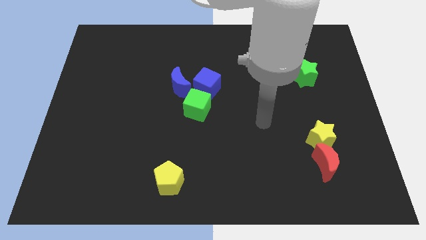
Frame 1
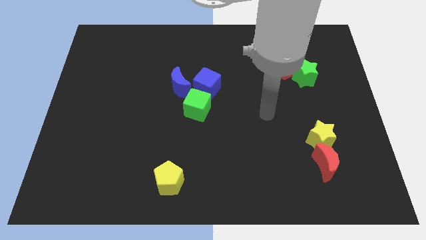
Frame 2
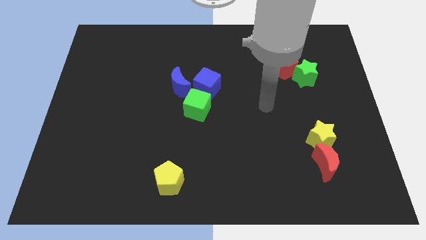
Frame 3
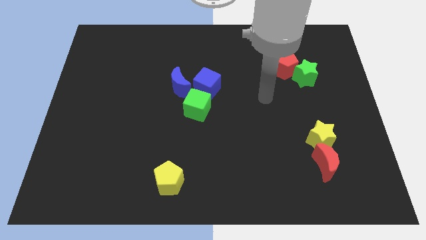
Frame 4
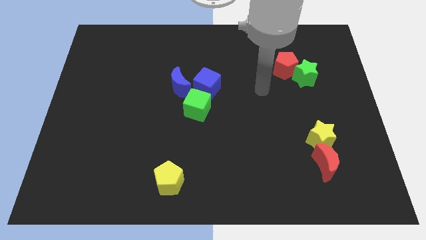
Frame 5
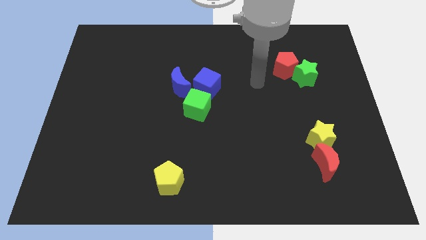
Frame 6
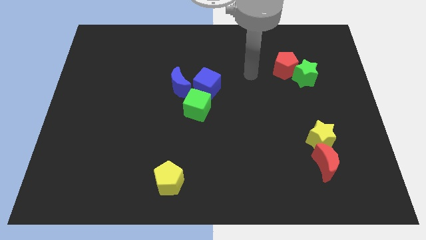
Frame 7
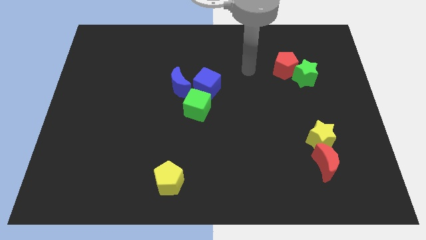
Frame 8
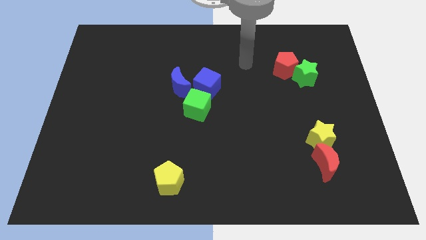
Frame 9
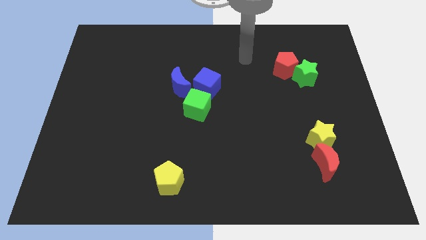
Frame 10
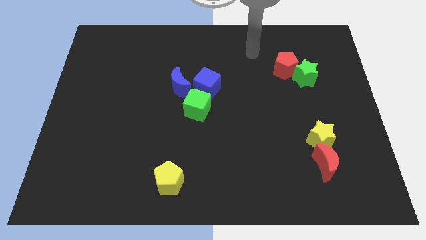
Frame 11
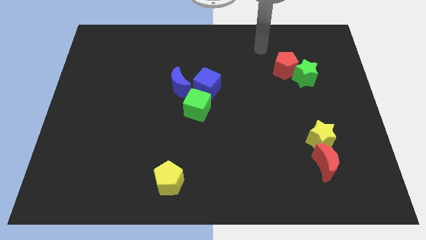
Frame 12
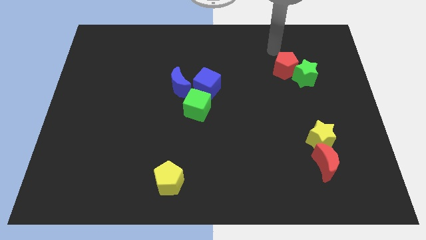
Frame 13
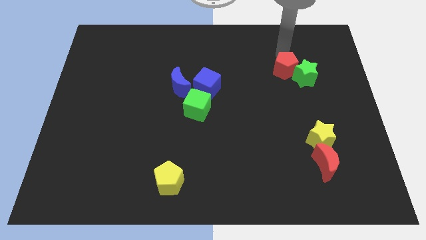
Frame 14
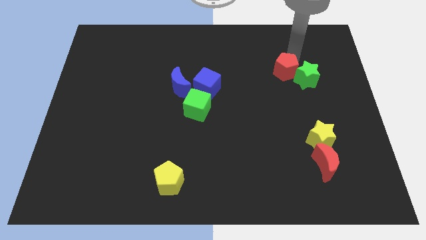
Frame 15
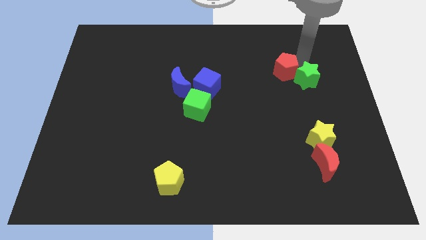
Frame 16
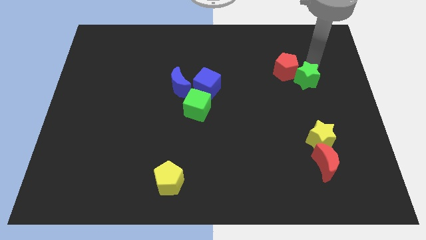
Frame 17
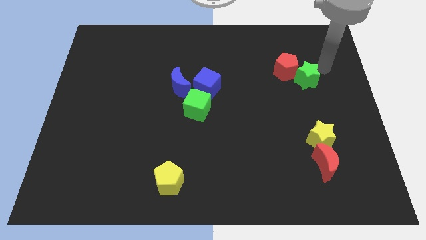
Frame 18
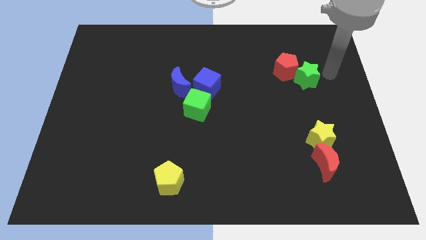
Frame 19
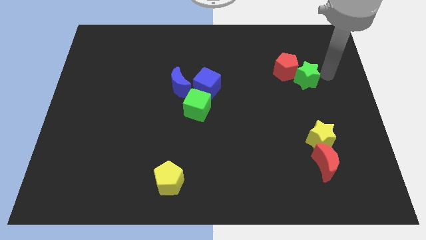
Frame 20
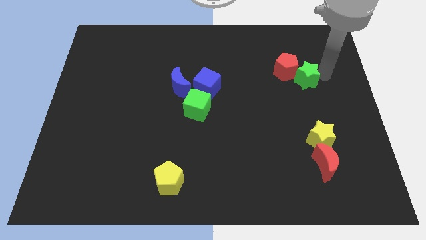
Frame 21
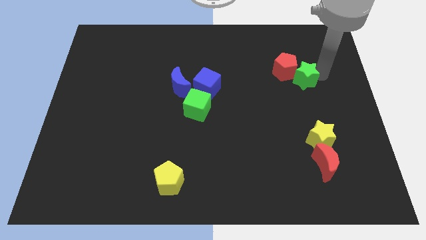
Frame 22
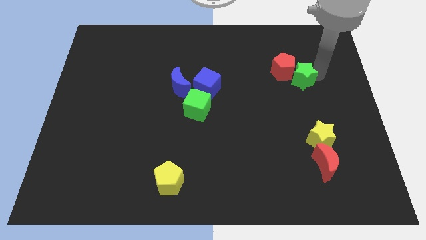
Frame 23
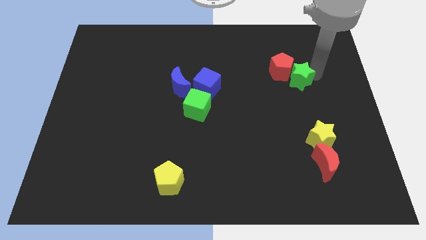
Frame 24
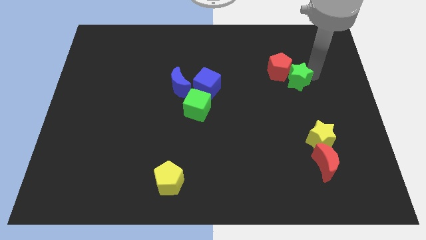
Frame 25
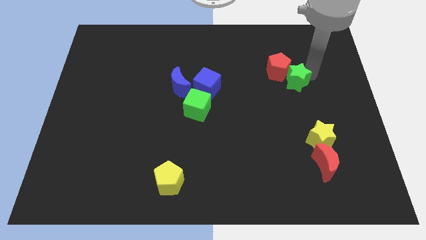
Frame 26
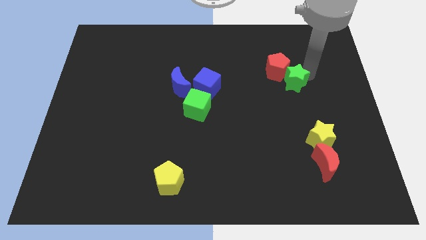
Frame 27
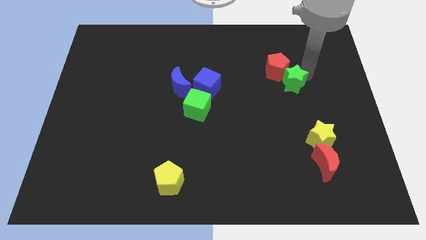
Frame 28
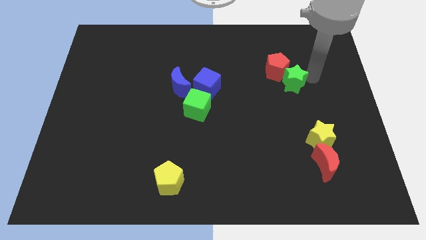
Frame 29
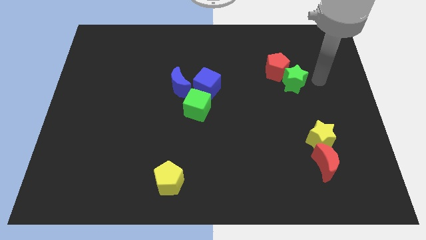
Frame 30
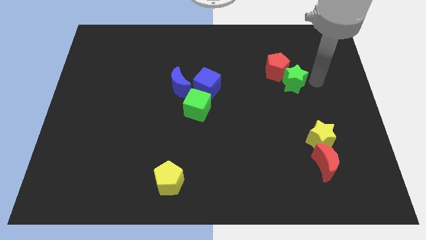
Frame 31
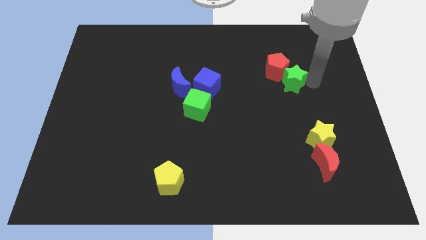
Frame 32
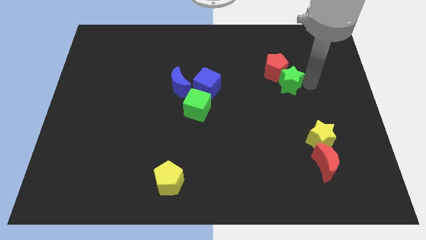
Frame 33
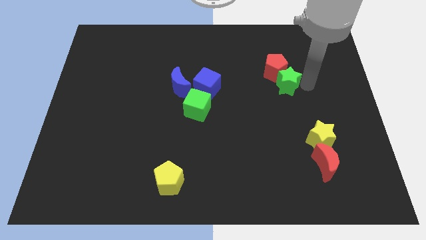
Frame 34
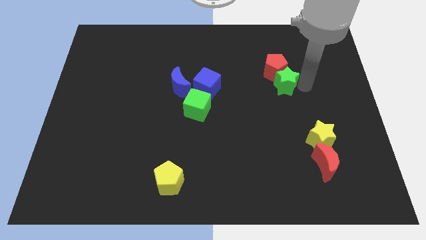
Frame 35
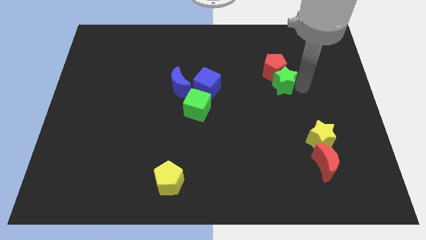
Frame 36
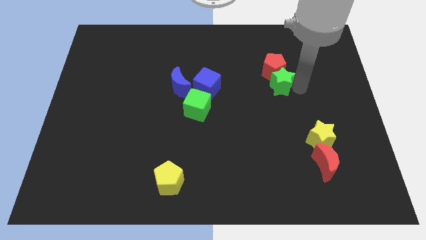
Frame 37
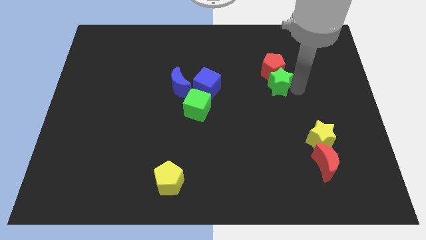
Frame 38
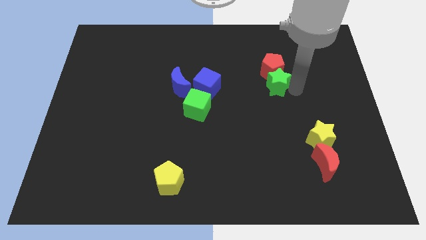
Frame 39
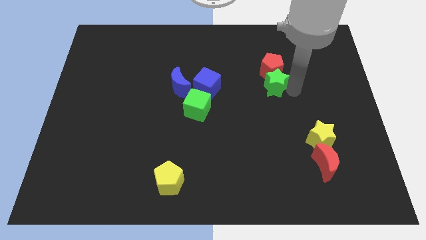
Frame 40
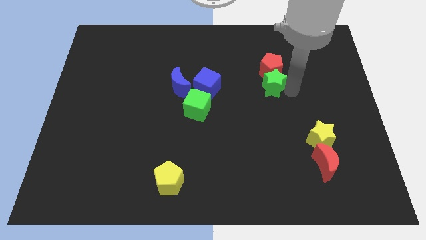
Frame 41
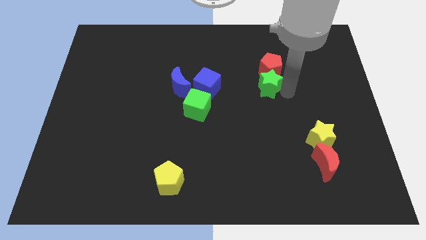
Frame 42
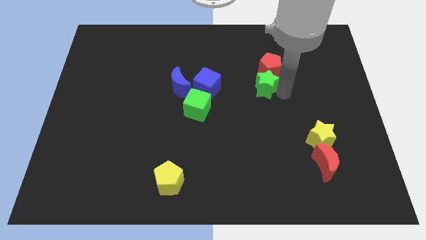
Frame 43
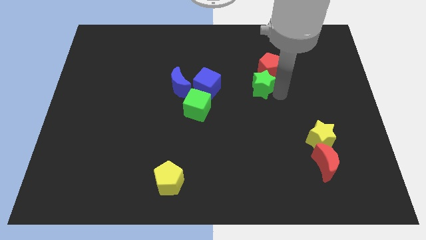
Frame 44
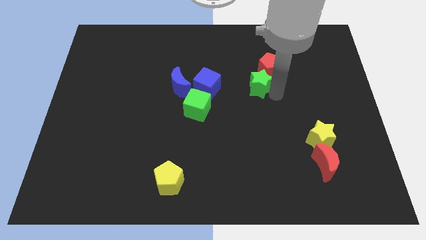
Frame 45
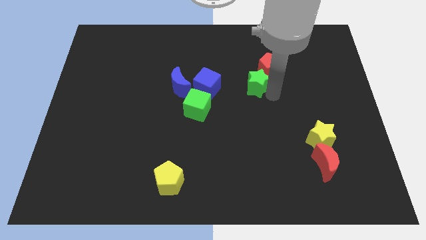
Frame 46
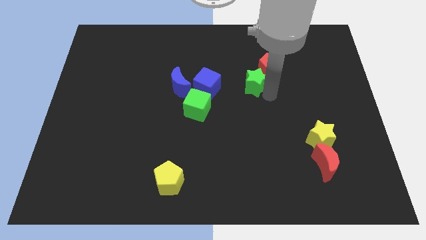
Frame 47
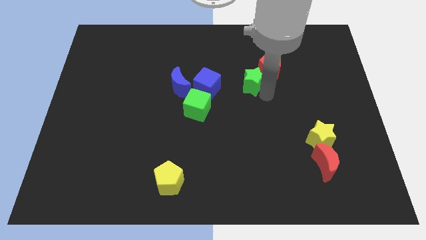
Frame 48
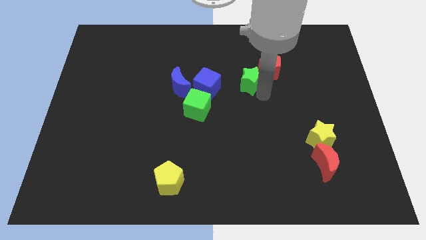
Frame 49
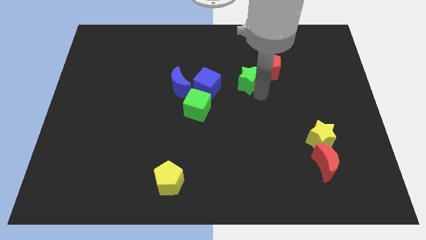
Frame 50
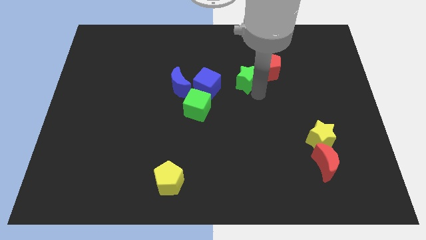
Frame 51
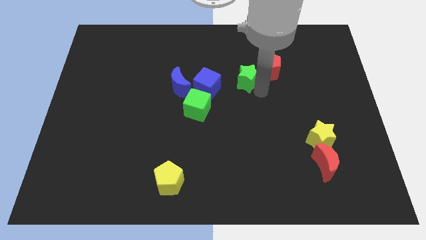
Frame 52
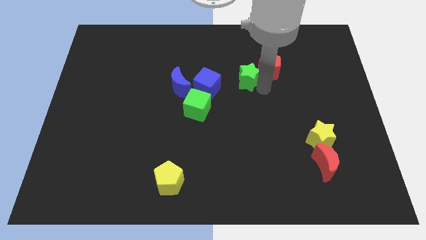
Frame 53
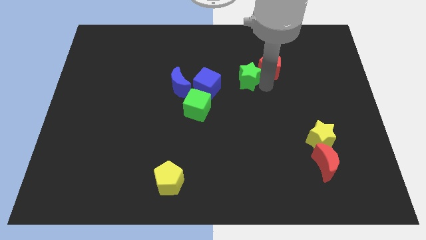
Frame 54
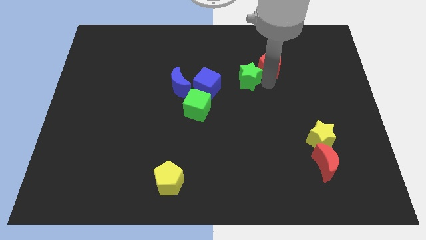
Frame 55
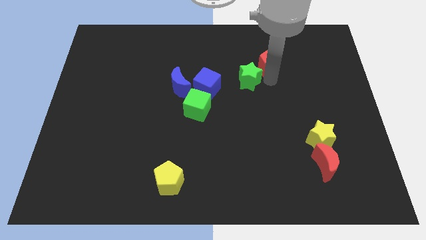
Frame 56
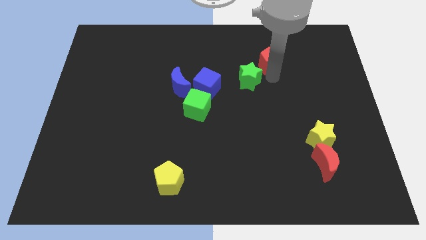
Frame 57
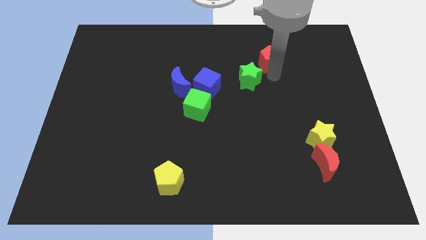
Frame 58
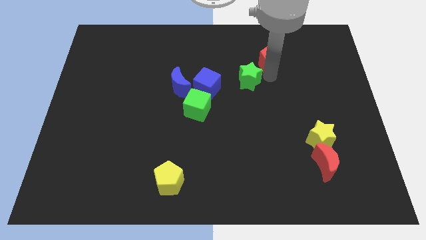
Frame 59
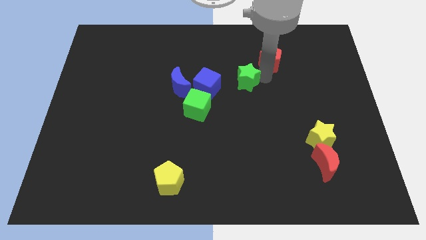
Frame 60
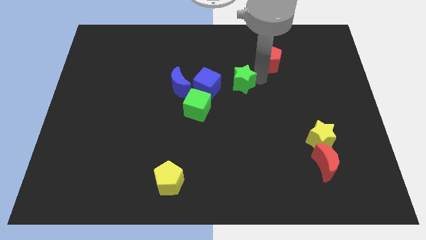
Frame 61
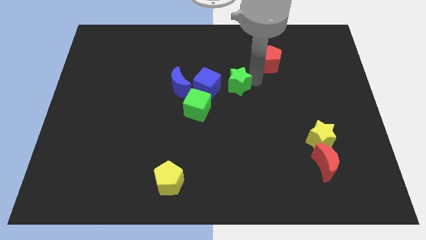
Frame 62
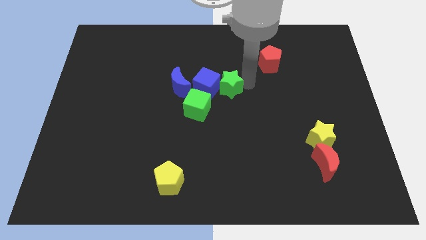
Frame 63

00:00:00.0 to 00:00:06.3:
move the green star to the blue cube
